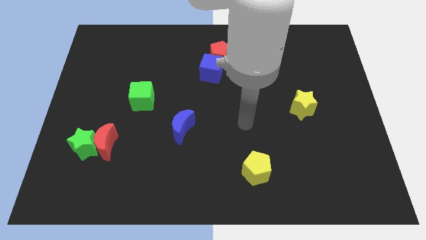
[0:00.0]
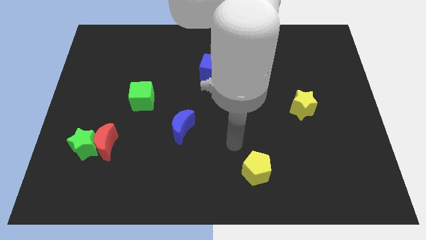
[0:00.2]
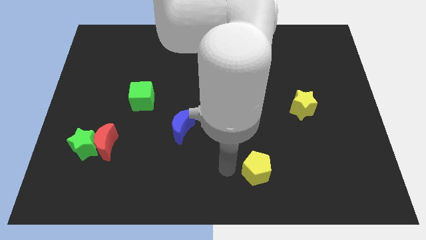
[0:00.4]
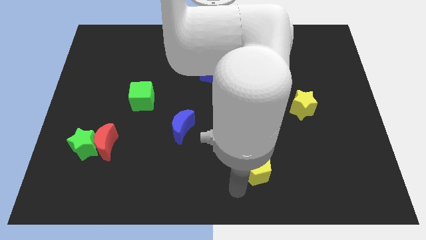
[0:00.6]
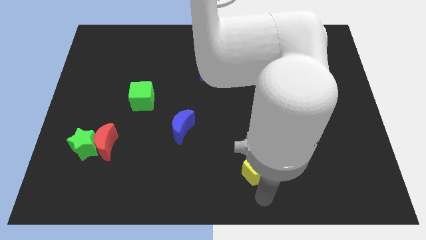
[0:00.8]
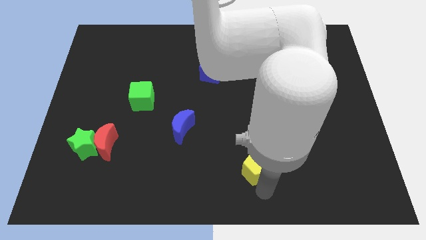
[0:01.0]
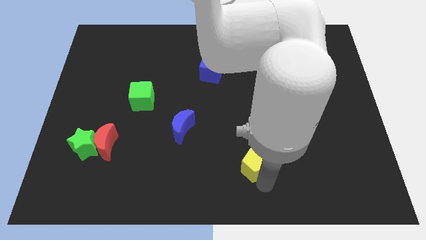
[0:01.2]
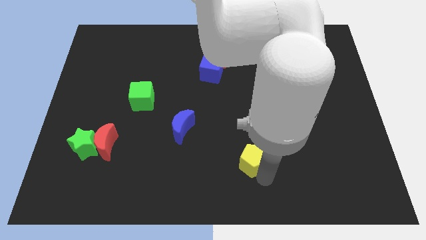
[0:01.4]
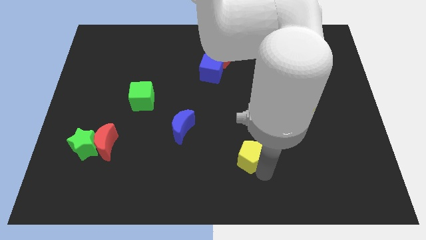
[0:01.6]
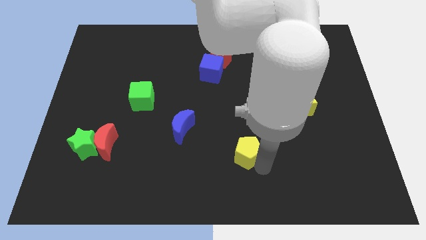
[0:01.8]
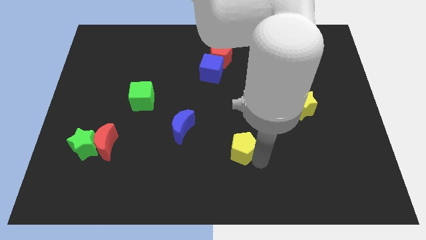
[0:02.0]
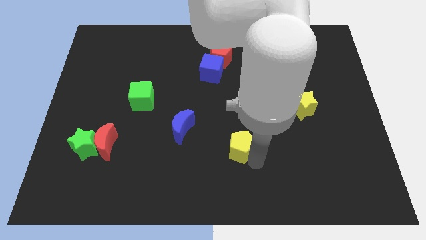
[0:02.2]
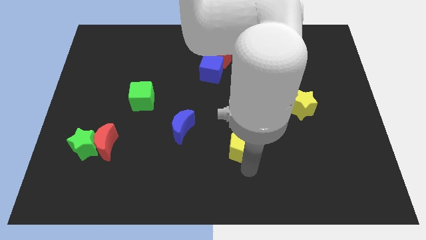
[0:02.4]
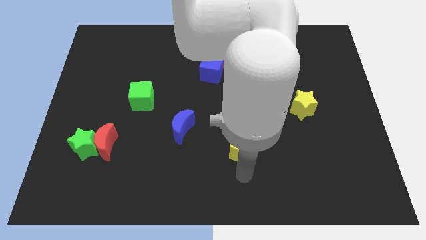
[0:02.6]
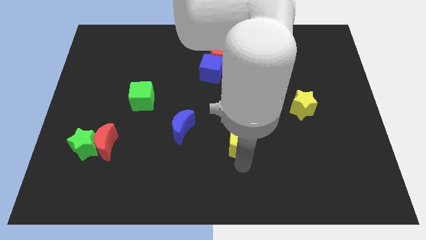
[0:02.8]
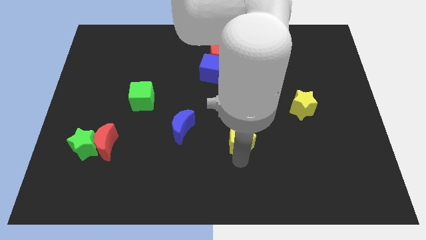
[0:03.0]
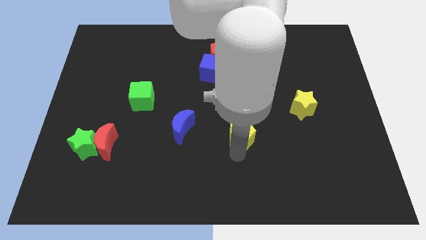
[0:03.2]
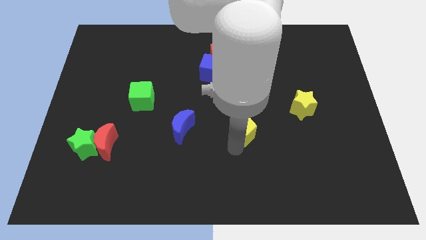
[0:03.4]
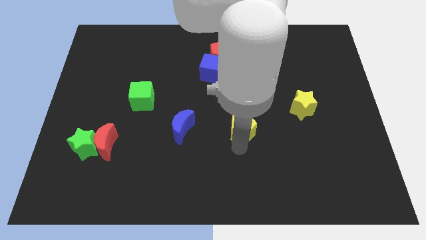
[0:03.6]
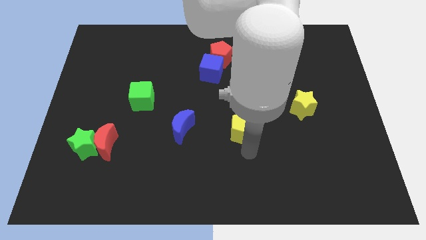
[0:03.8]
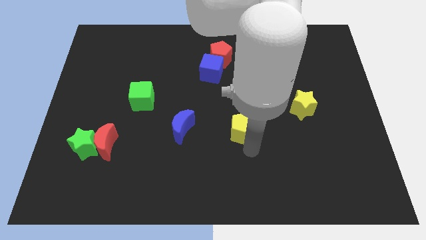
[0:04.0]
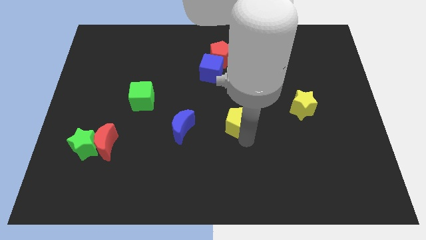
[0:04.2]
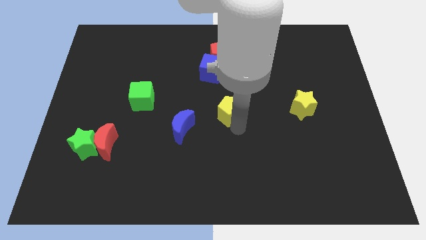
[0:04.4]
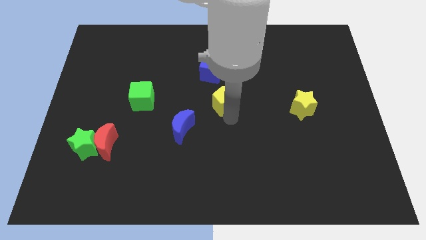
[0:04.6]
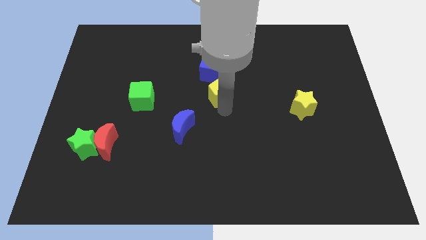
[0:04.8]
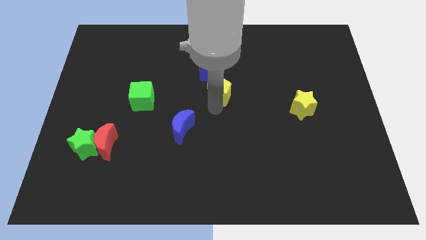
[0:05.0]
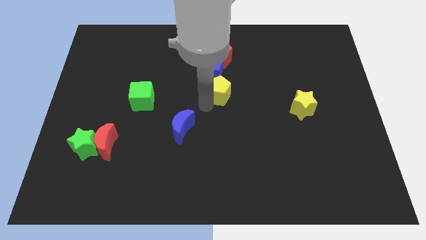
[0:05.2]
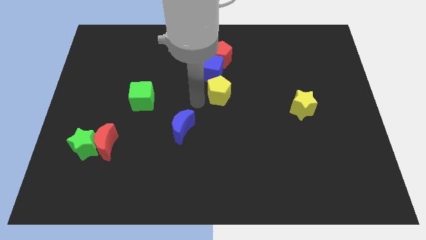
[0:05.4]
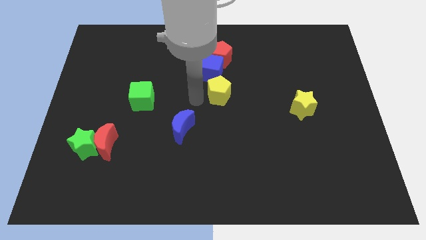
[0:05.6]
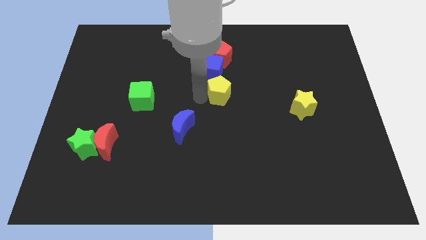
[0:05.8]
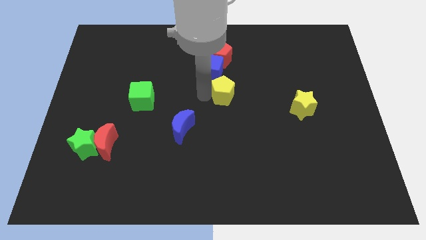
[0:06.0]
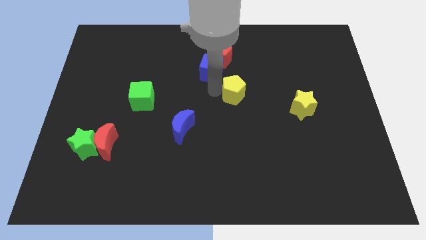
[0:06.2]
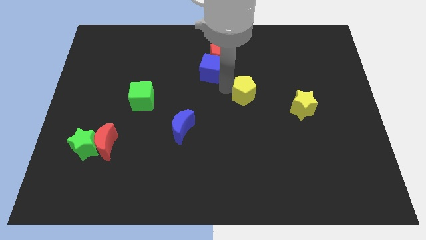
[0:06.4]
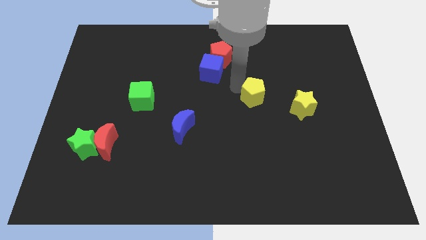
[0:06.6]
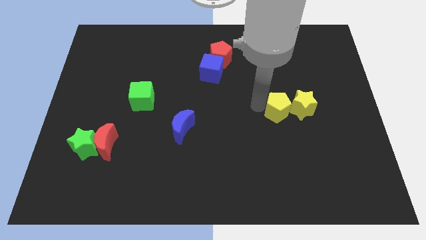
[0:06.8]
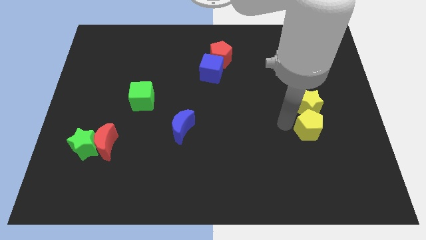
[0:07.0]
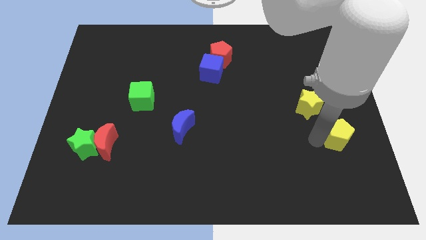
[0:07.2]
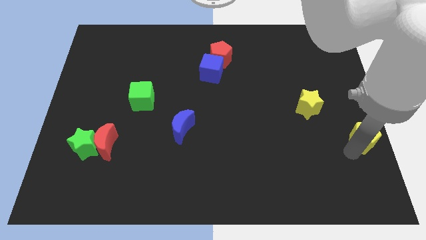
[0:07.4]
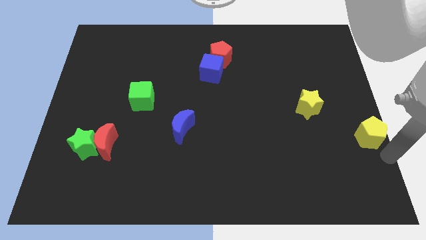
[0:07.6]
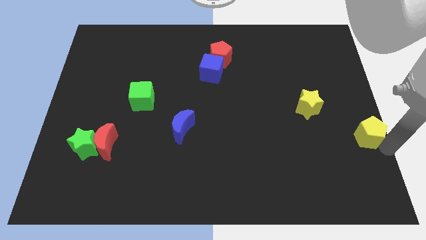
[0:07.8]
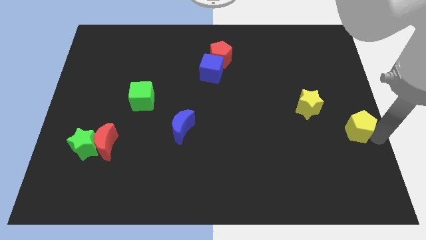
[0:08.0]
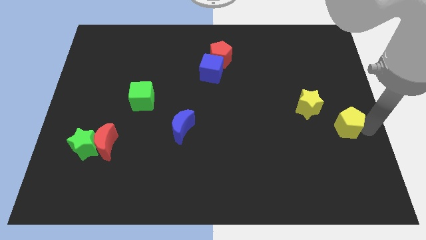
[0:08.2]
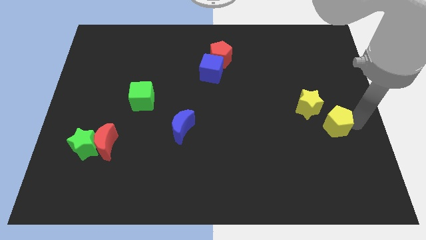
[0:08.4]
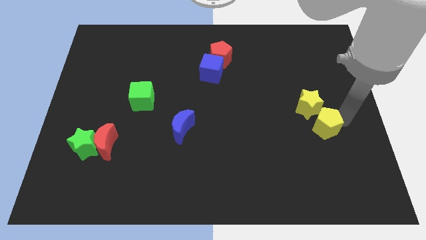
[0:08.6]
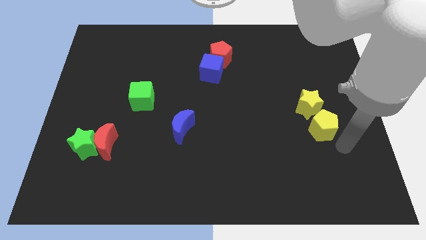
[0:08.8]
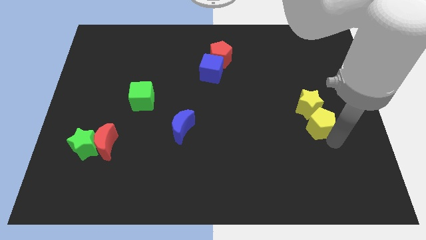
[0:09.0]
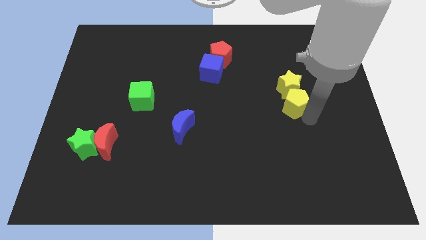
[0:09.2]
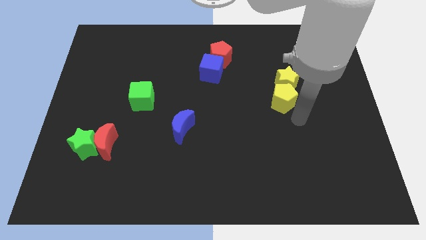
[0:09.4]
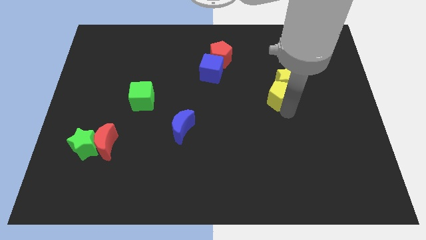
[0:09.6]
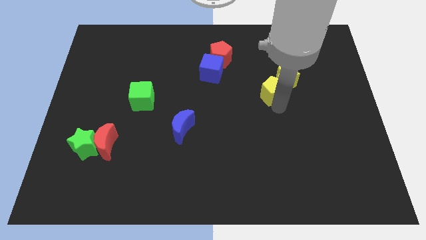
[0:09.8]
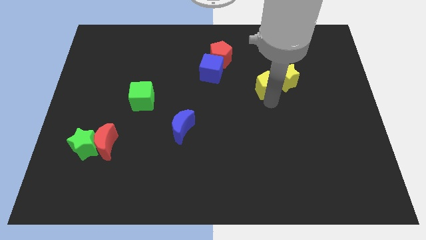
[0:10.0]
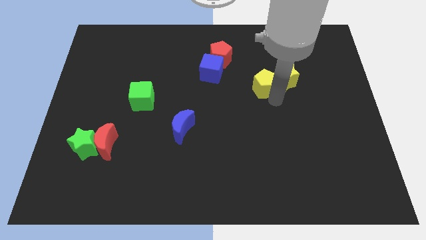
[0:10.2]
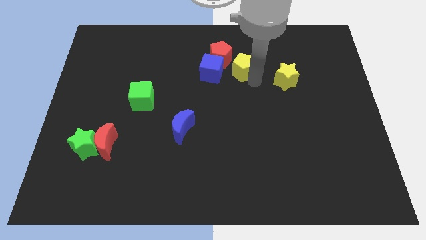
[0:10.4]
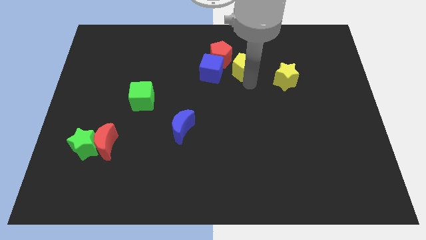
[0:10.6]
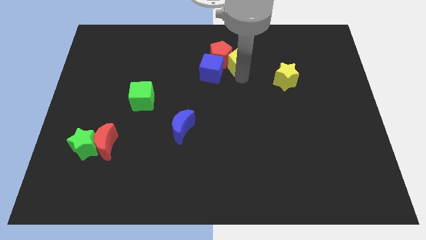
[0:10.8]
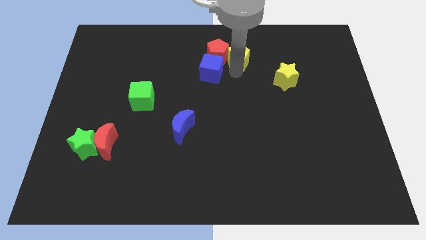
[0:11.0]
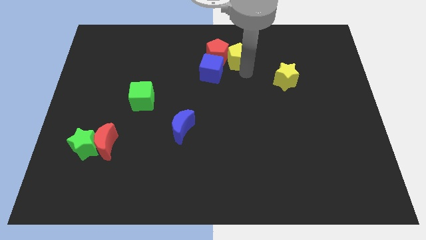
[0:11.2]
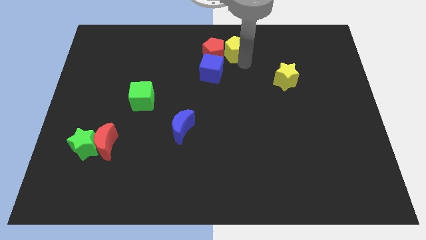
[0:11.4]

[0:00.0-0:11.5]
push the yellow pentagon to the towards your base
